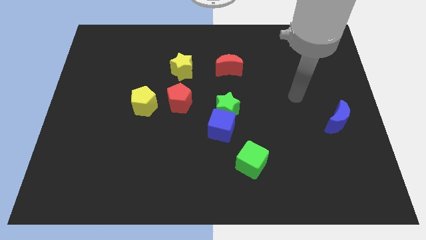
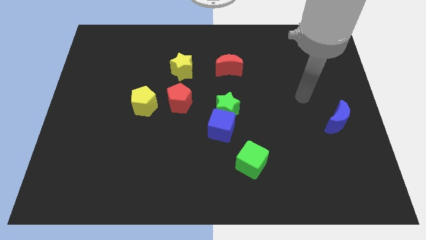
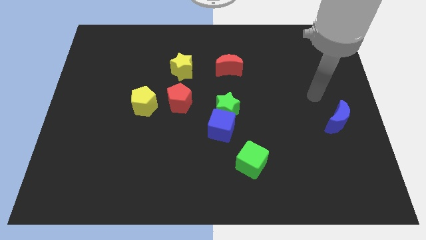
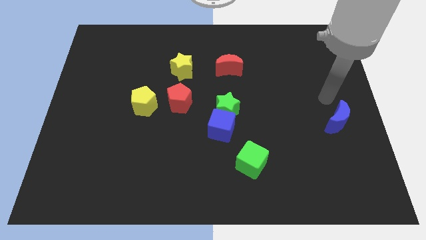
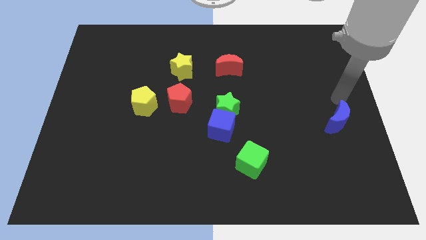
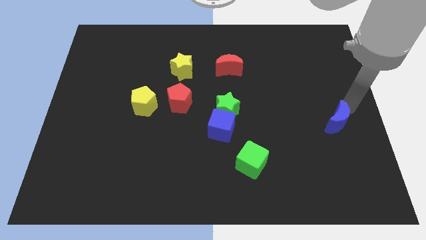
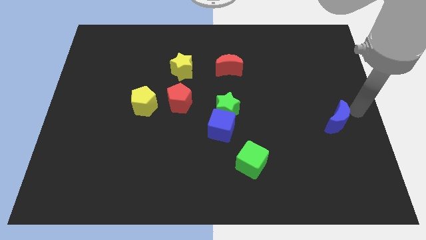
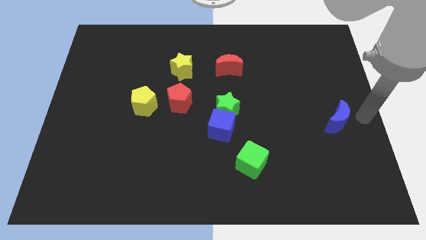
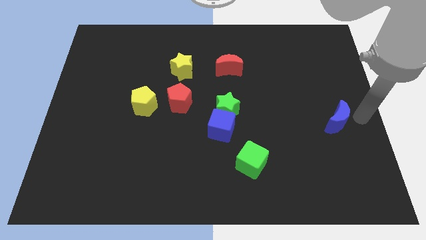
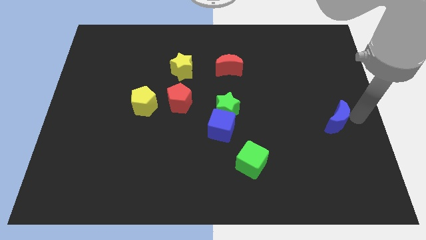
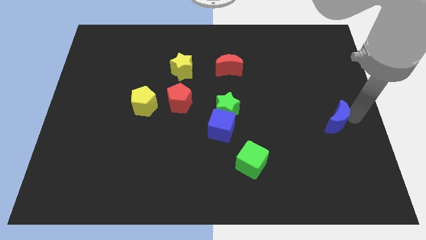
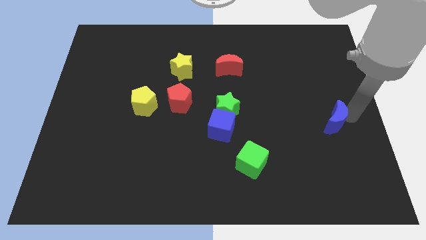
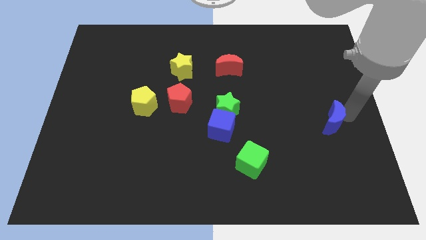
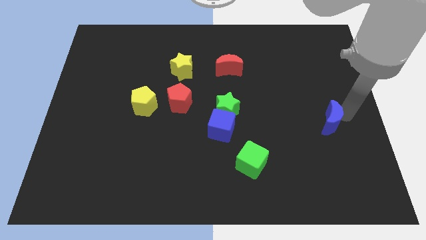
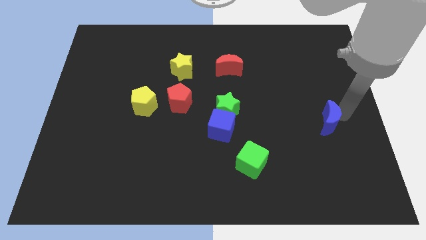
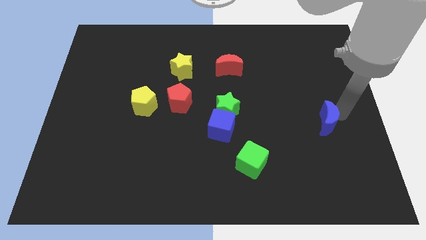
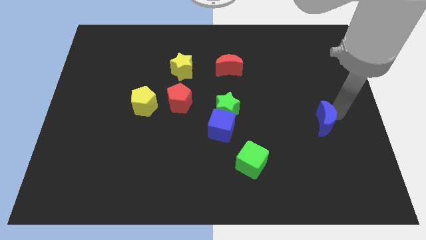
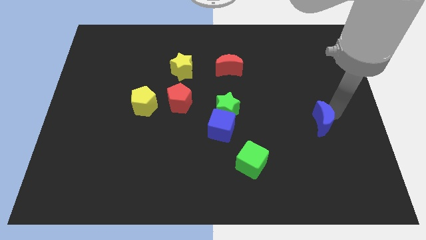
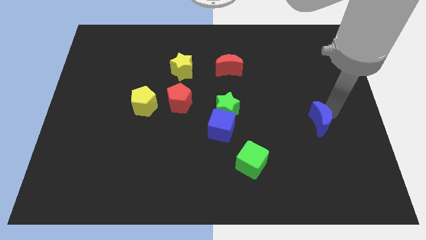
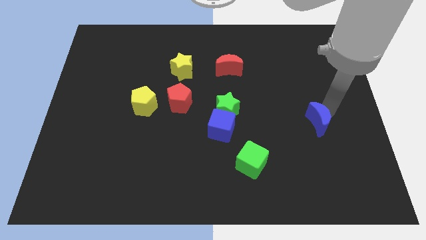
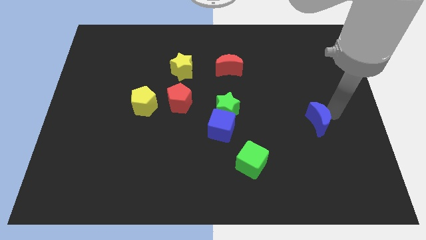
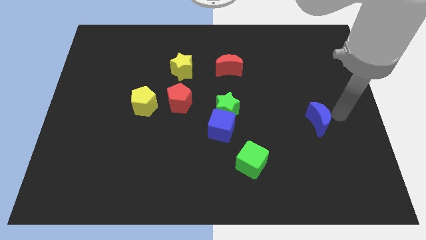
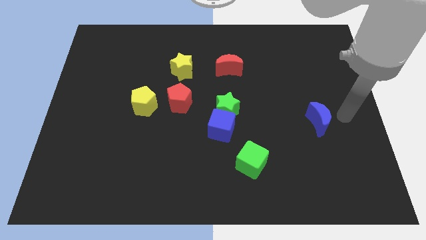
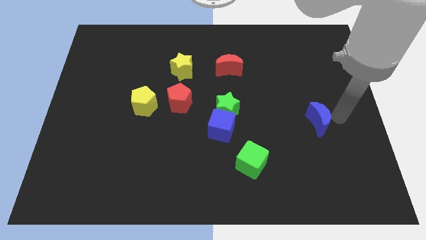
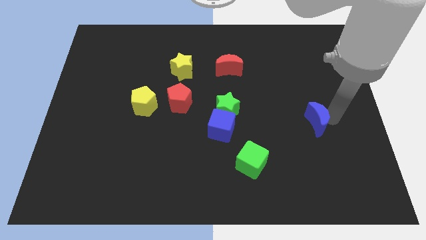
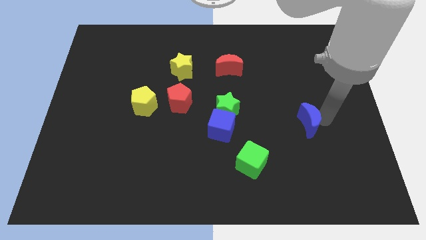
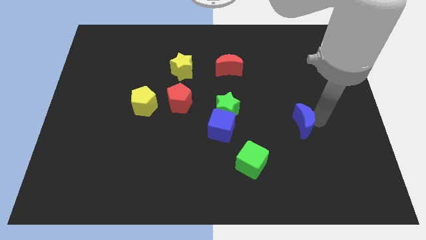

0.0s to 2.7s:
slightly push the blue moon to the left

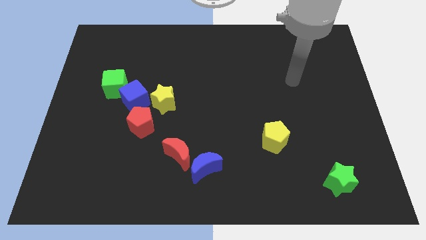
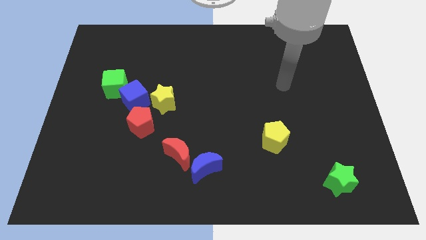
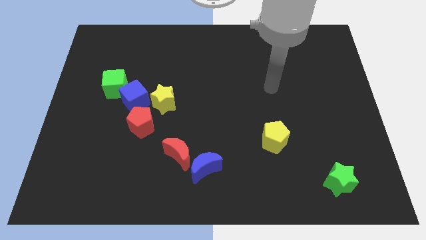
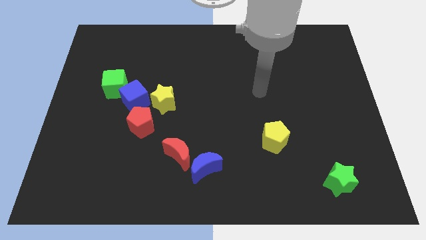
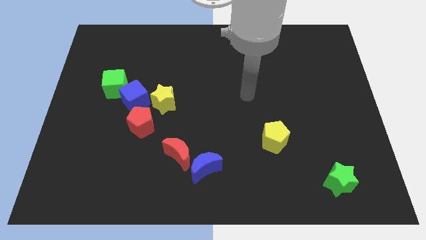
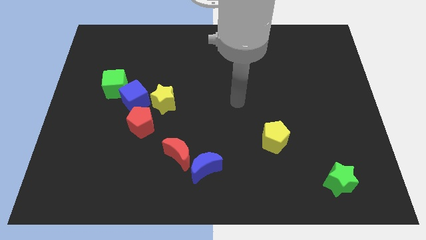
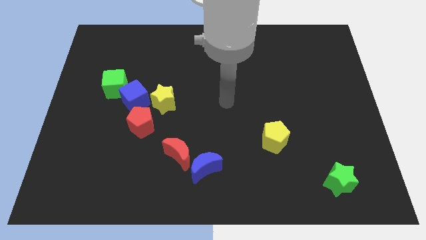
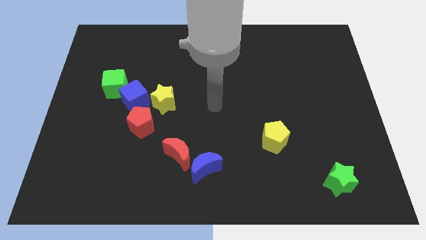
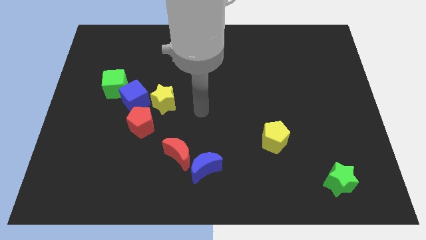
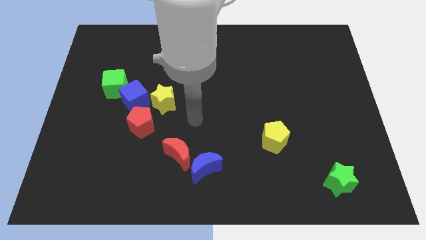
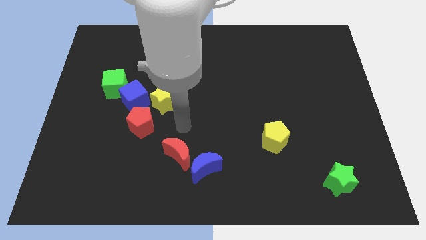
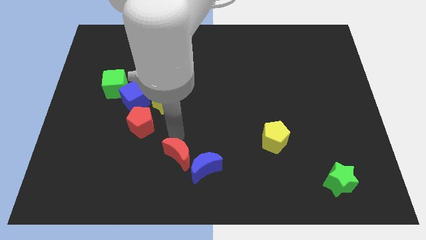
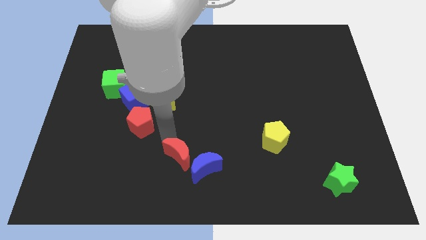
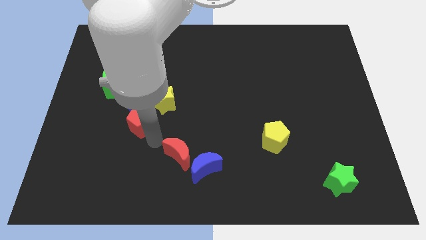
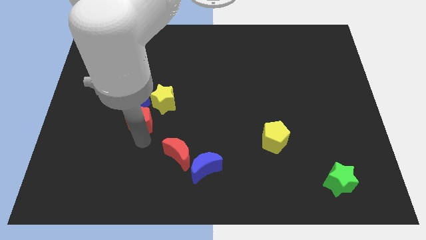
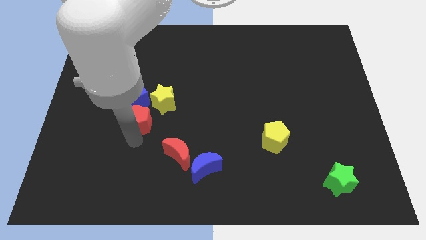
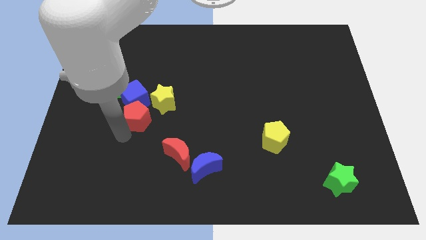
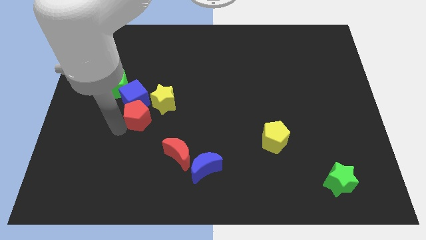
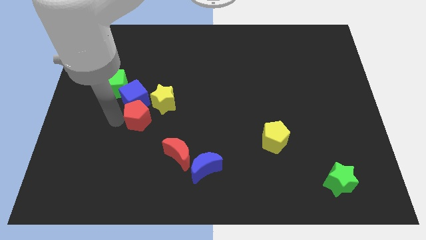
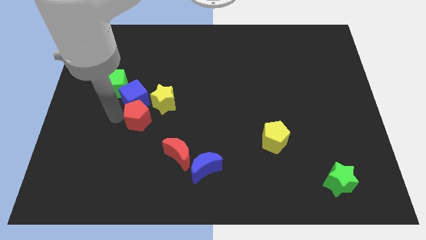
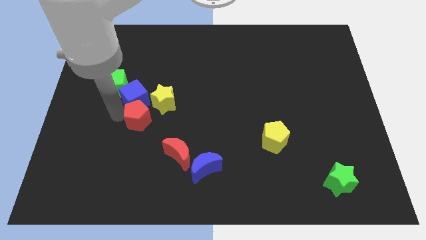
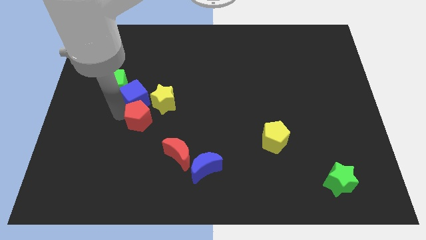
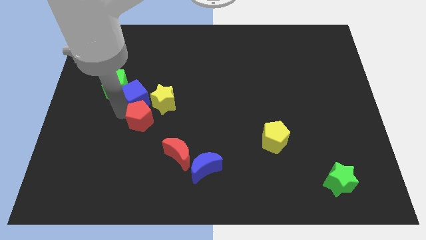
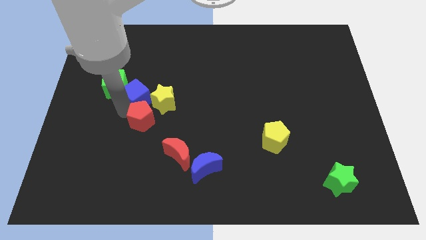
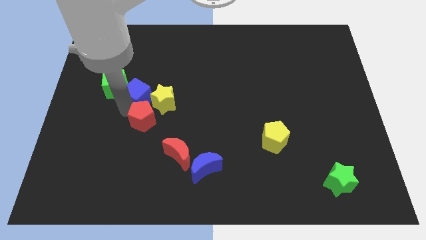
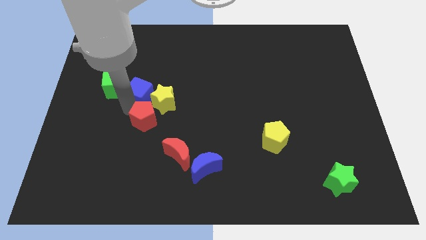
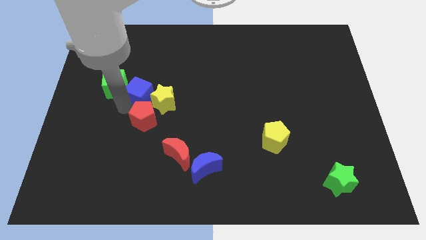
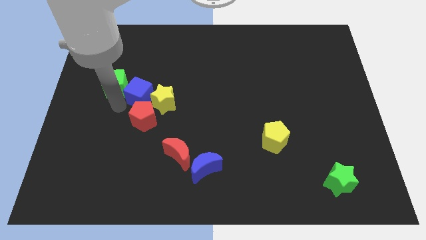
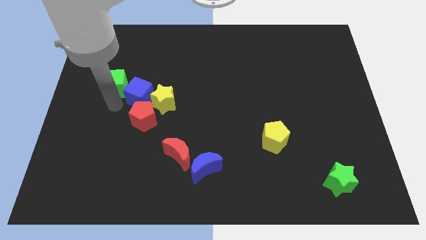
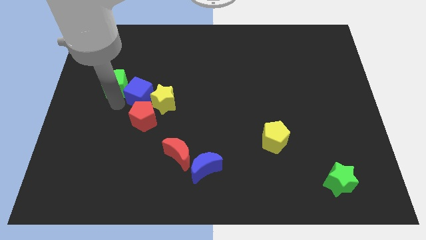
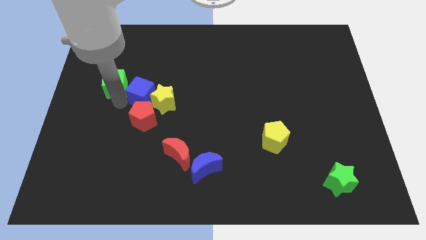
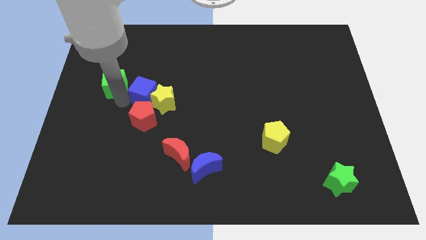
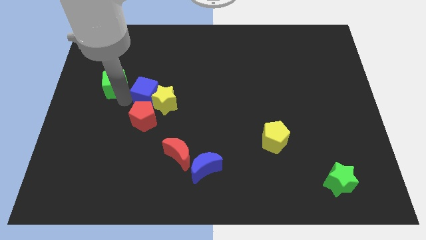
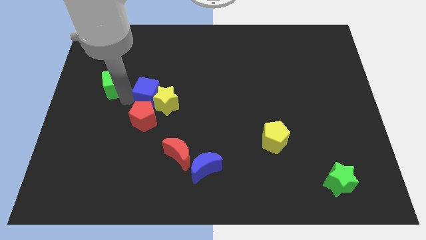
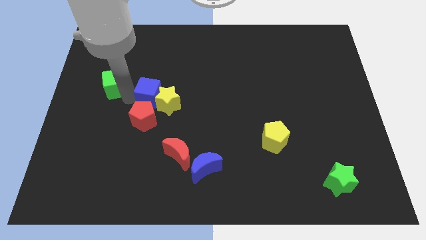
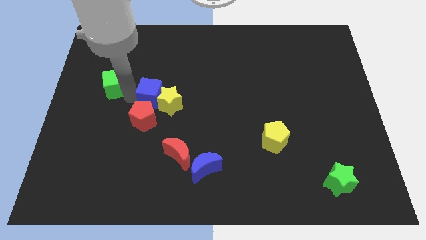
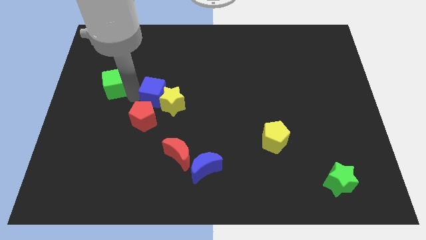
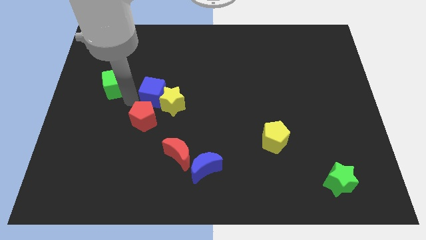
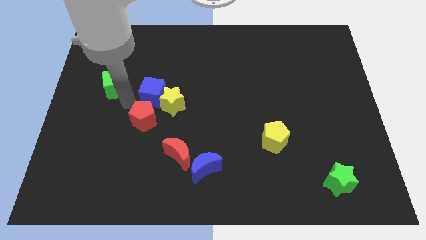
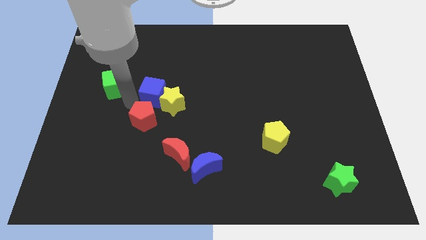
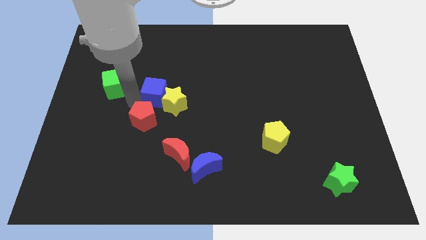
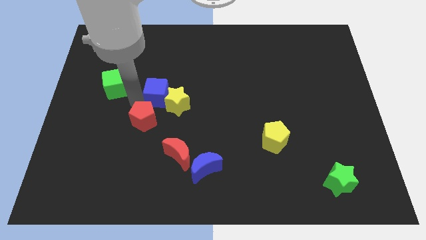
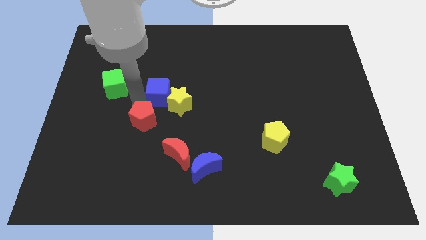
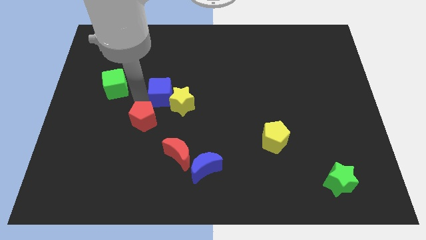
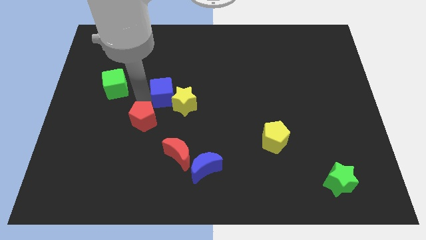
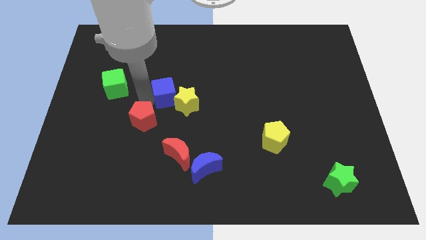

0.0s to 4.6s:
slide the blue cube a little bit right

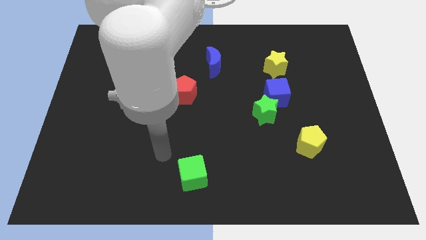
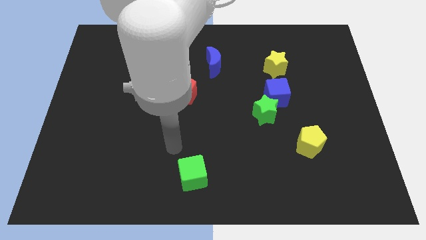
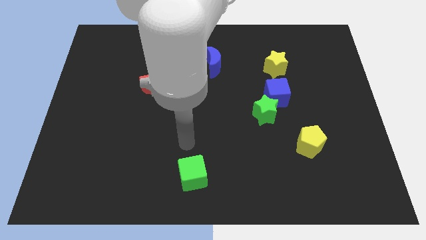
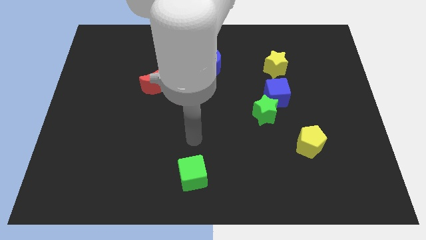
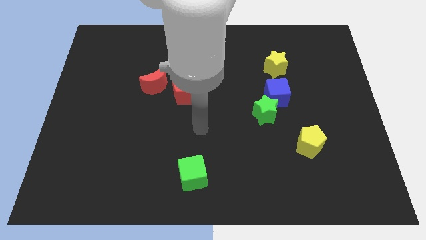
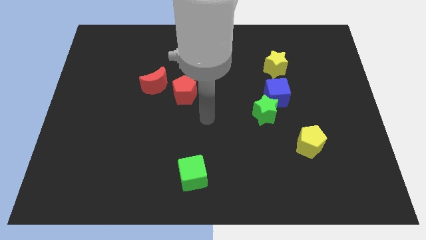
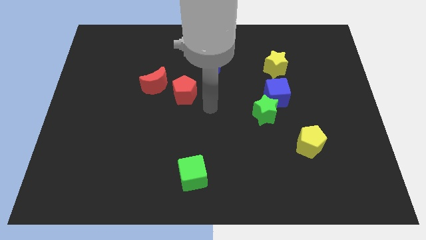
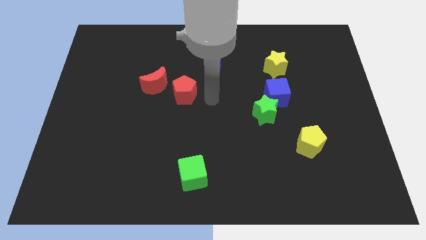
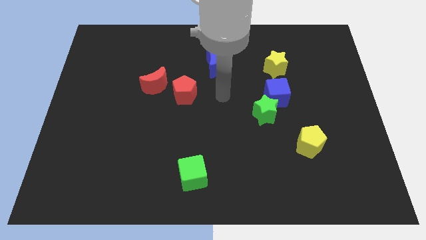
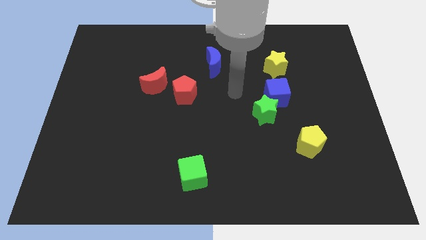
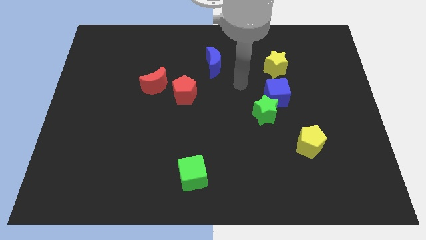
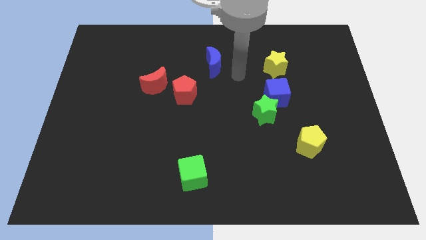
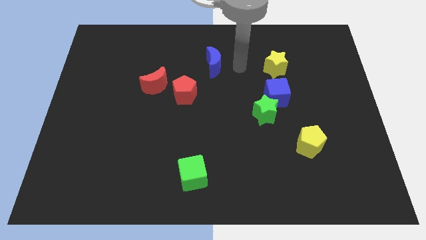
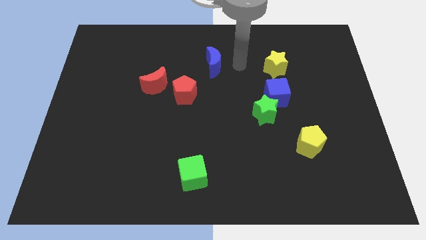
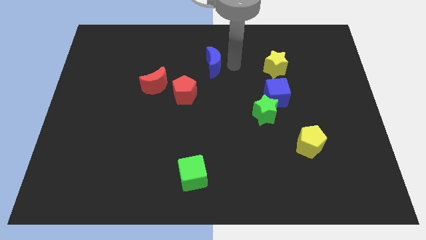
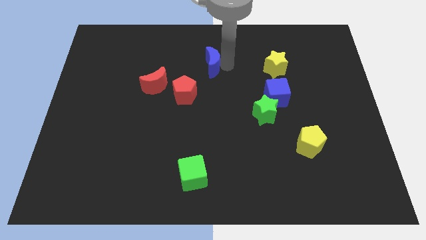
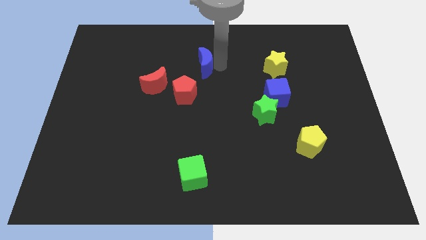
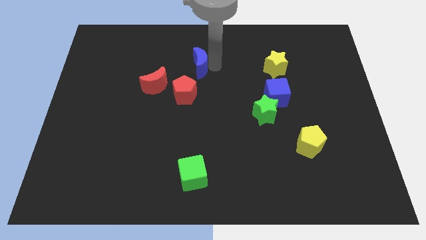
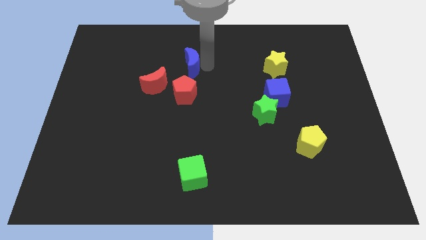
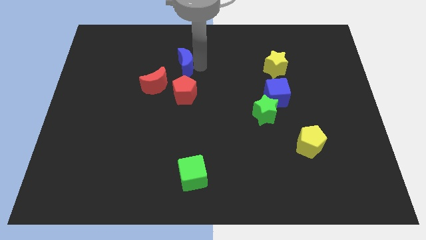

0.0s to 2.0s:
push the blue moon somewhat left
